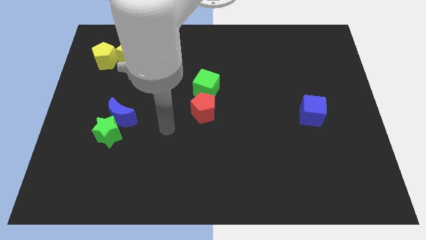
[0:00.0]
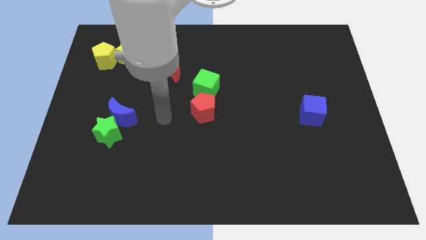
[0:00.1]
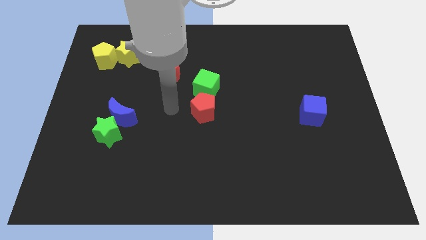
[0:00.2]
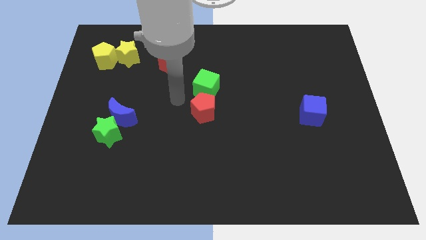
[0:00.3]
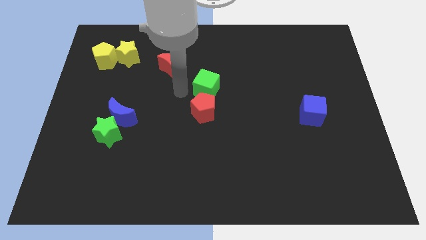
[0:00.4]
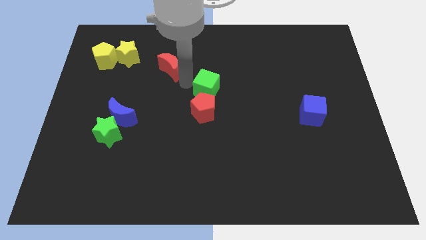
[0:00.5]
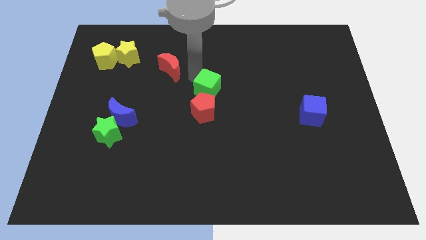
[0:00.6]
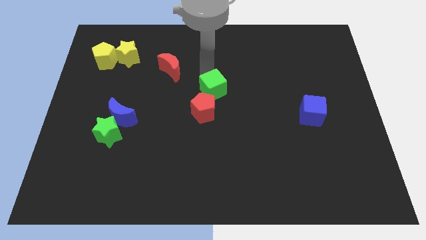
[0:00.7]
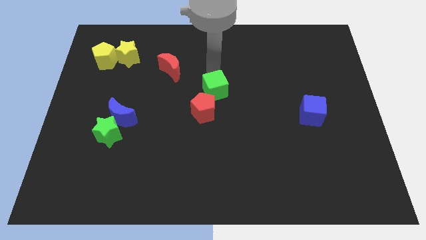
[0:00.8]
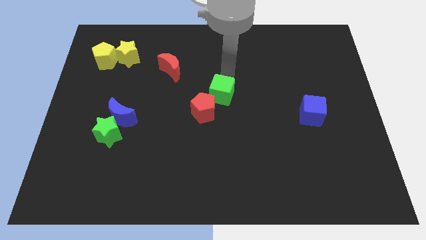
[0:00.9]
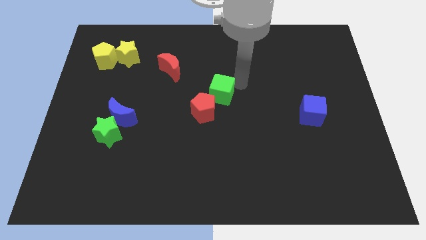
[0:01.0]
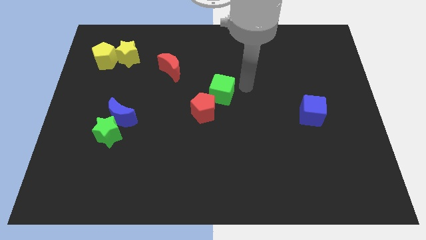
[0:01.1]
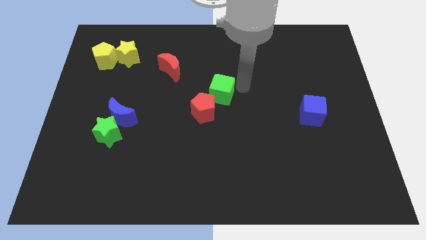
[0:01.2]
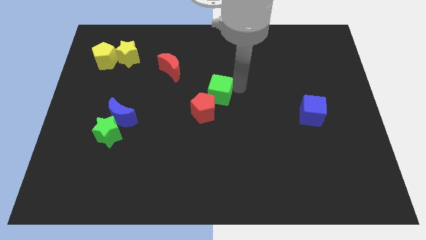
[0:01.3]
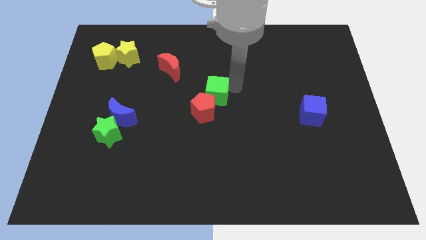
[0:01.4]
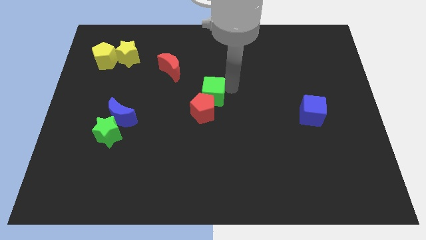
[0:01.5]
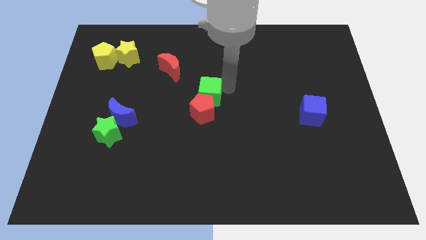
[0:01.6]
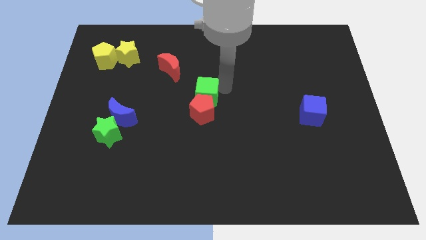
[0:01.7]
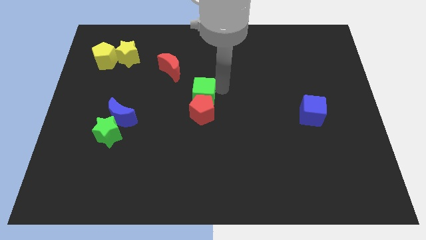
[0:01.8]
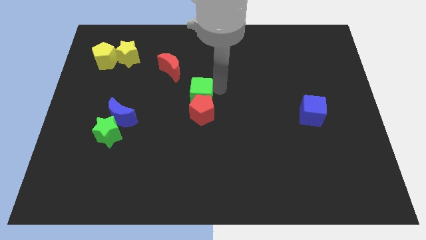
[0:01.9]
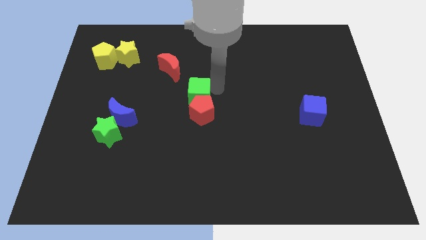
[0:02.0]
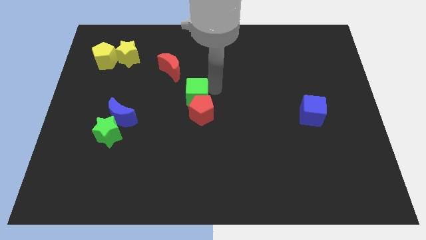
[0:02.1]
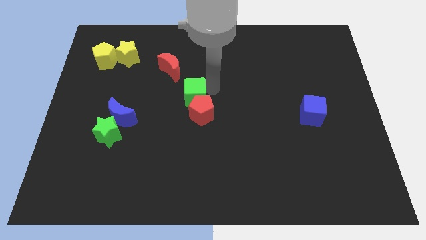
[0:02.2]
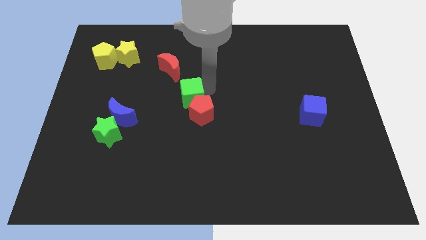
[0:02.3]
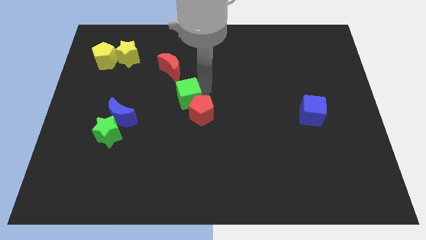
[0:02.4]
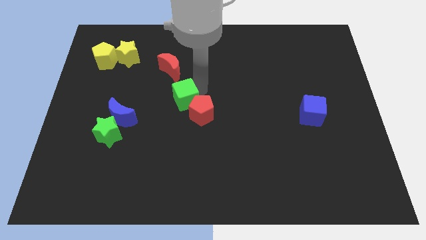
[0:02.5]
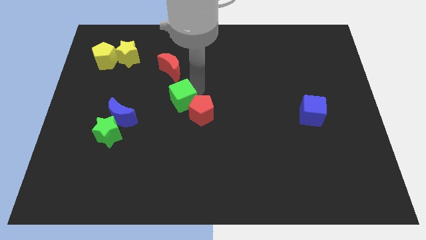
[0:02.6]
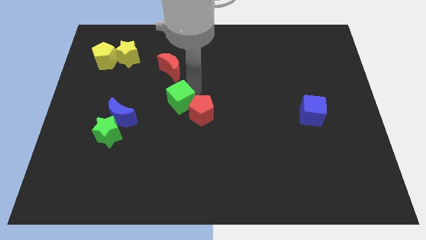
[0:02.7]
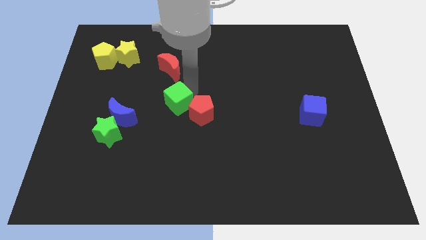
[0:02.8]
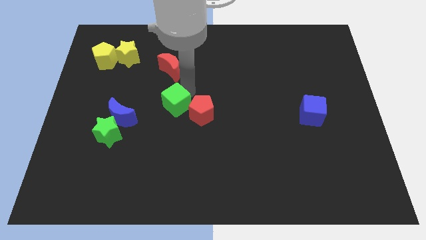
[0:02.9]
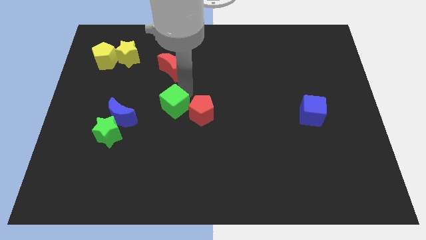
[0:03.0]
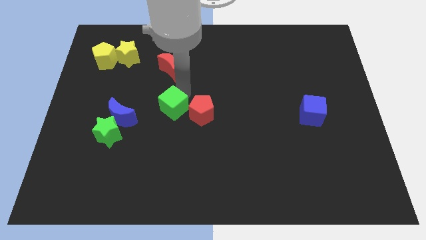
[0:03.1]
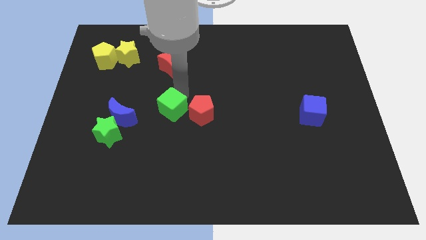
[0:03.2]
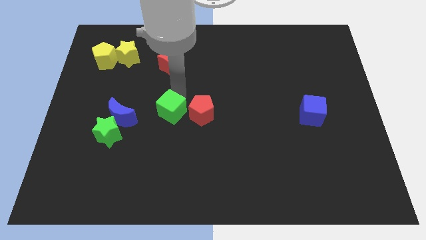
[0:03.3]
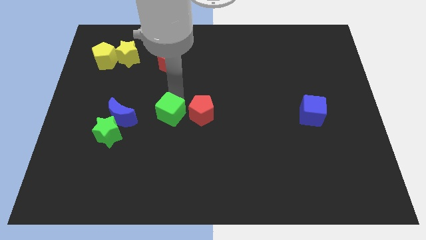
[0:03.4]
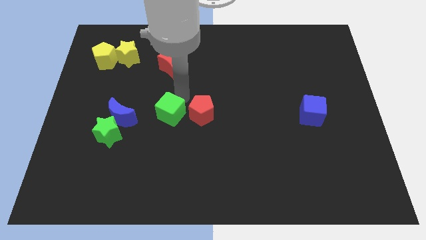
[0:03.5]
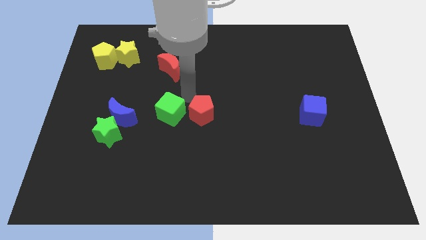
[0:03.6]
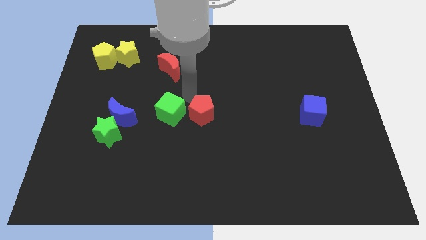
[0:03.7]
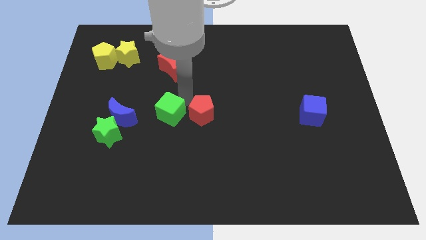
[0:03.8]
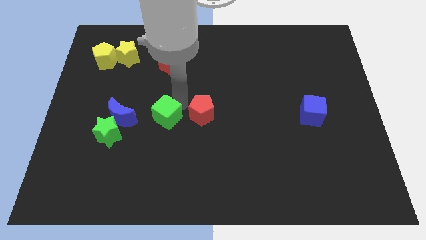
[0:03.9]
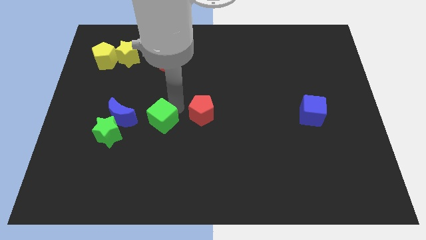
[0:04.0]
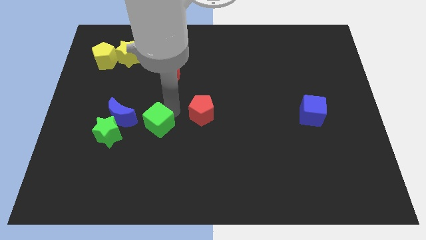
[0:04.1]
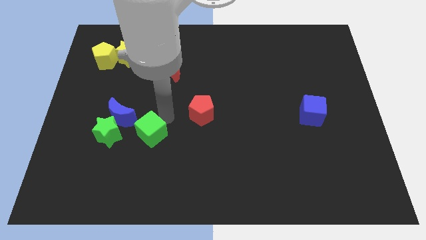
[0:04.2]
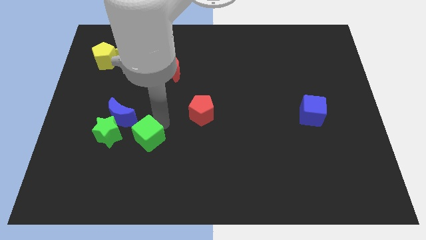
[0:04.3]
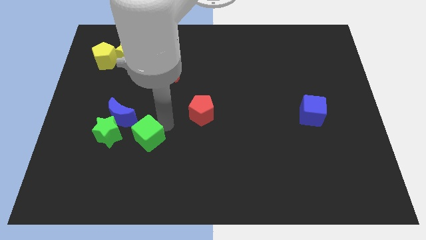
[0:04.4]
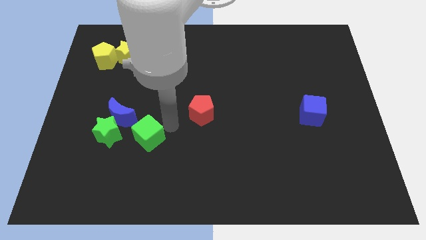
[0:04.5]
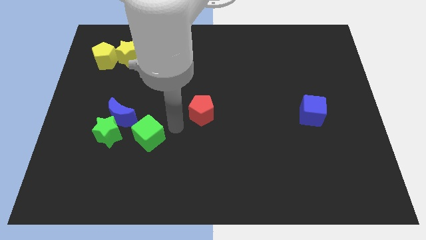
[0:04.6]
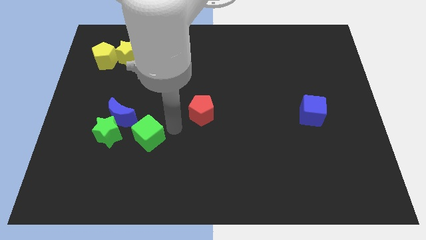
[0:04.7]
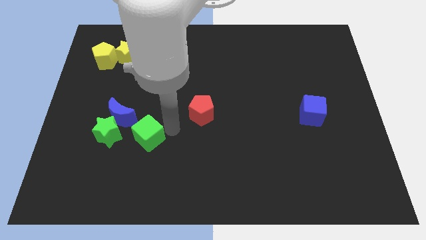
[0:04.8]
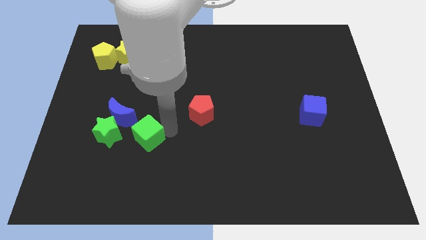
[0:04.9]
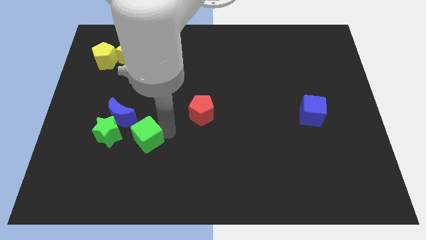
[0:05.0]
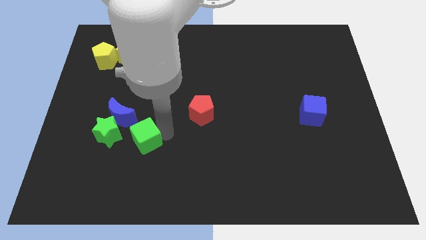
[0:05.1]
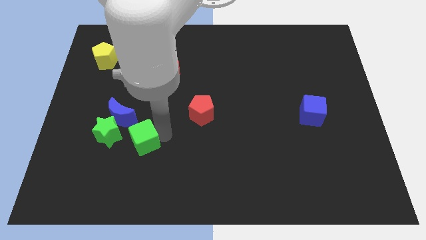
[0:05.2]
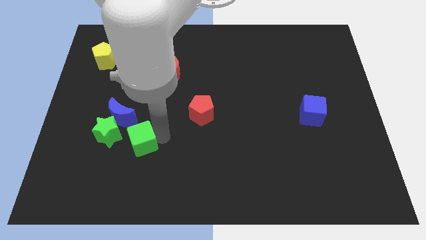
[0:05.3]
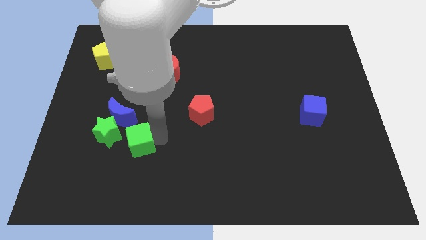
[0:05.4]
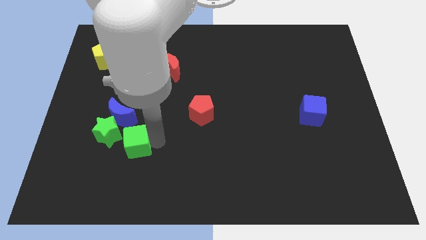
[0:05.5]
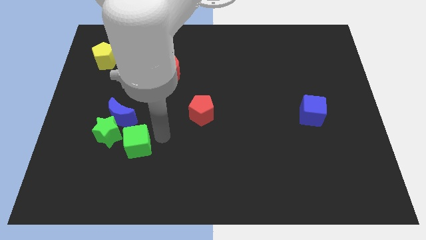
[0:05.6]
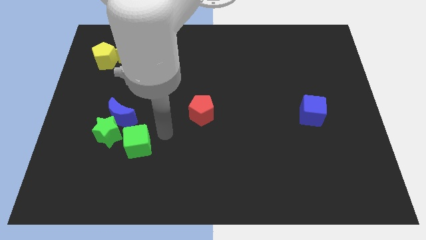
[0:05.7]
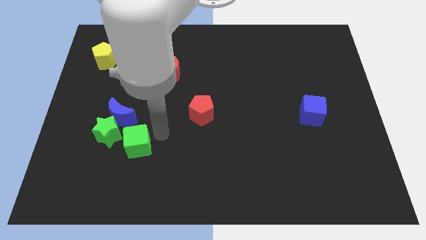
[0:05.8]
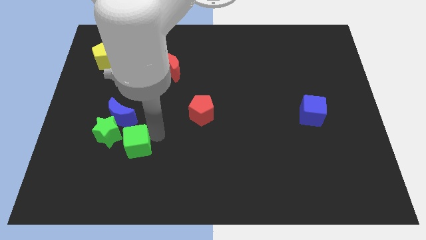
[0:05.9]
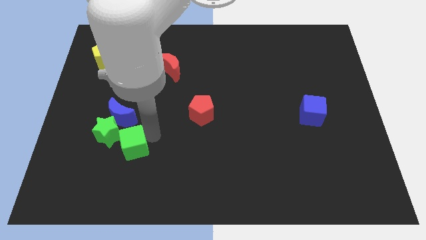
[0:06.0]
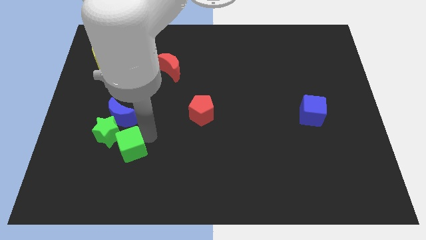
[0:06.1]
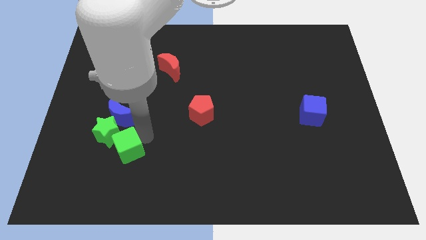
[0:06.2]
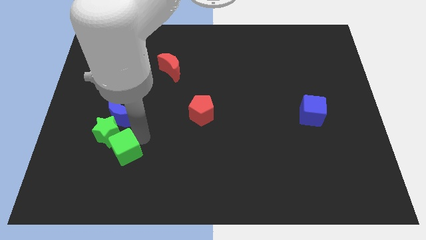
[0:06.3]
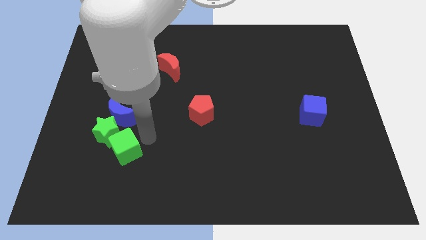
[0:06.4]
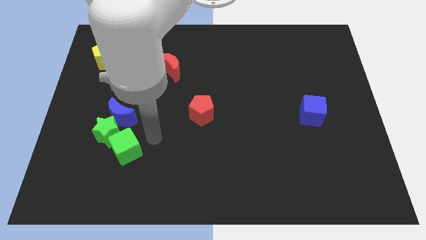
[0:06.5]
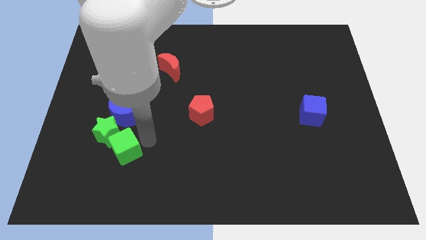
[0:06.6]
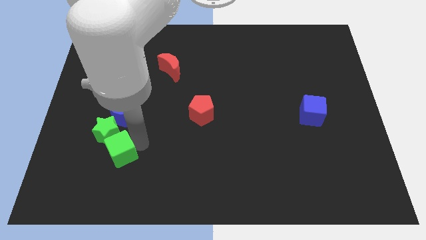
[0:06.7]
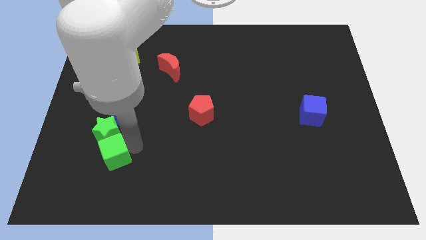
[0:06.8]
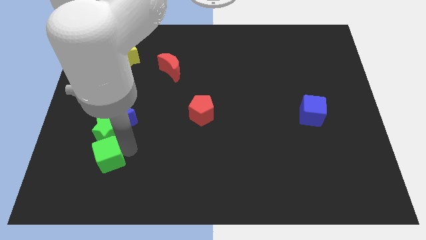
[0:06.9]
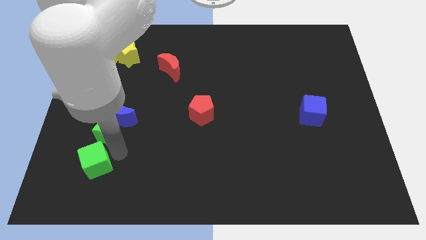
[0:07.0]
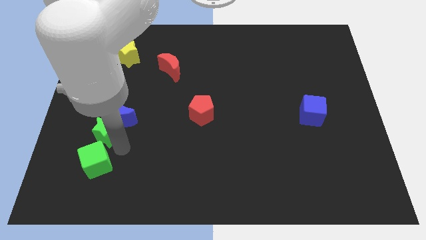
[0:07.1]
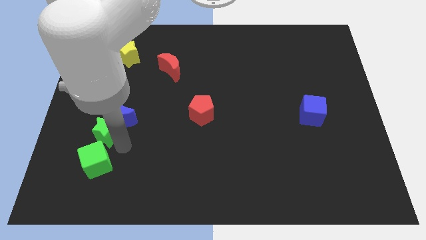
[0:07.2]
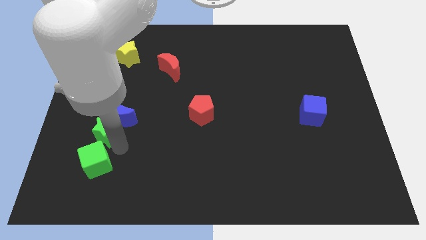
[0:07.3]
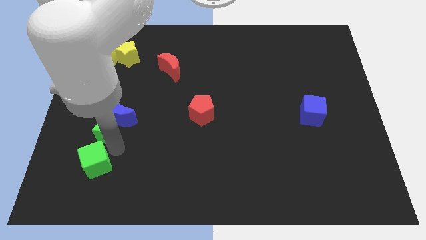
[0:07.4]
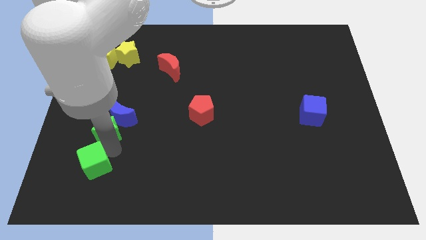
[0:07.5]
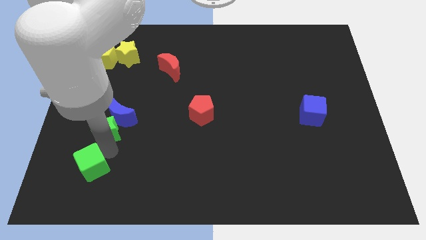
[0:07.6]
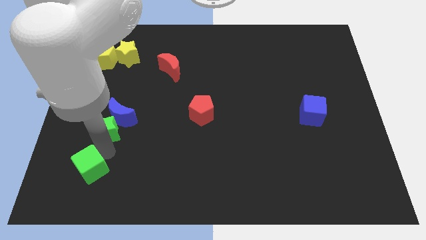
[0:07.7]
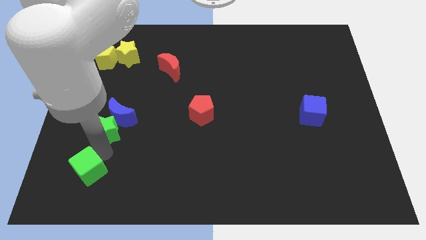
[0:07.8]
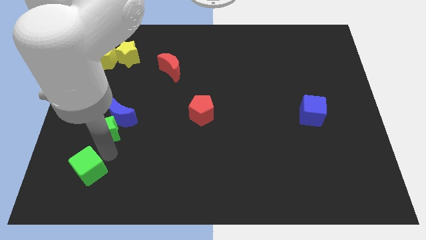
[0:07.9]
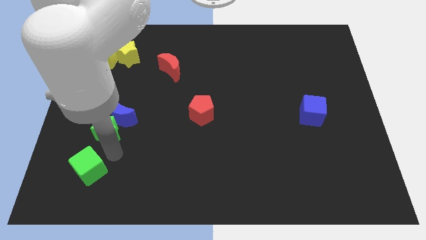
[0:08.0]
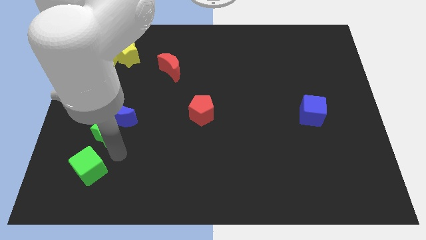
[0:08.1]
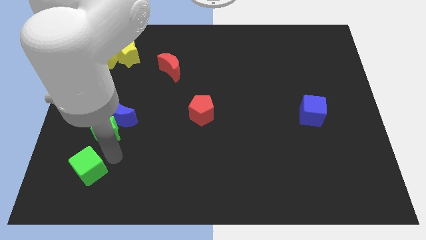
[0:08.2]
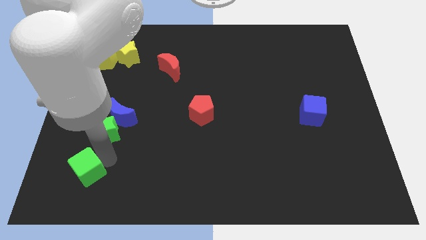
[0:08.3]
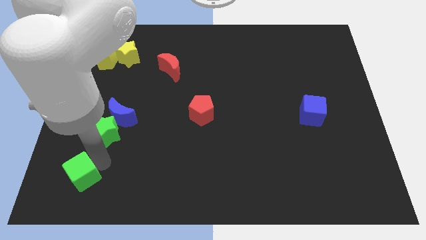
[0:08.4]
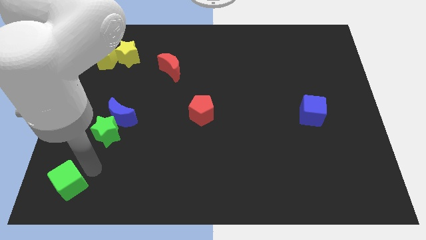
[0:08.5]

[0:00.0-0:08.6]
move the green cube to the bottom left
